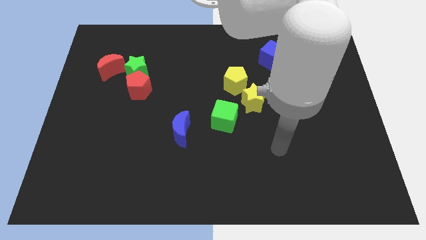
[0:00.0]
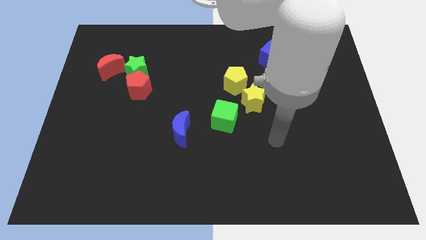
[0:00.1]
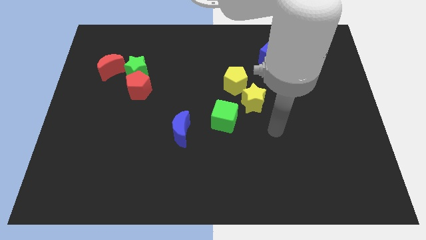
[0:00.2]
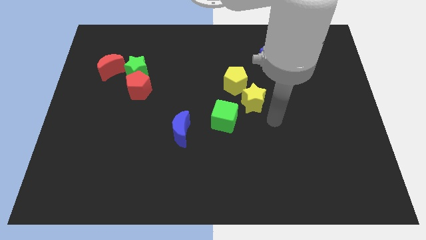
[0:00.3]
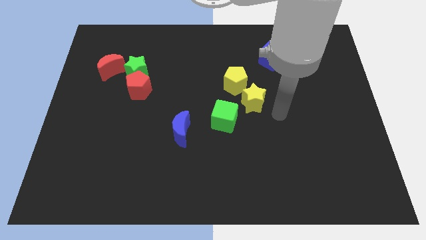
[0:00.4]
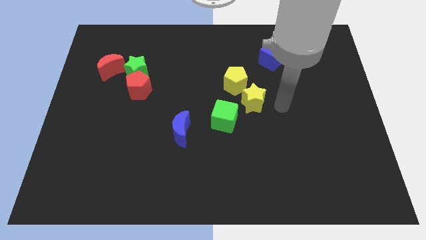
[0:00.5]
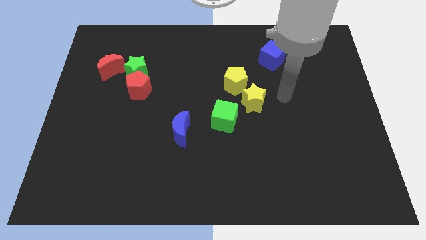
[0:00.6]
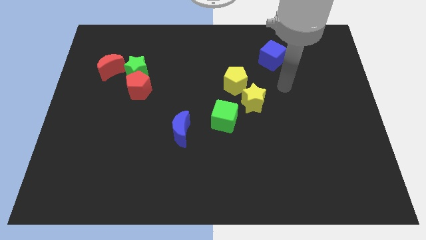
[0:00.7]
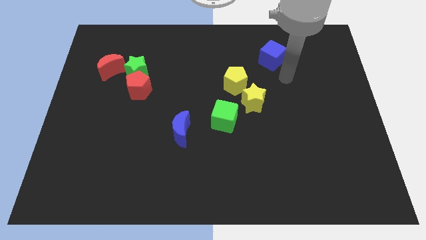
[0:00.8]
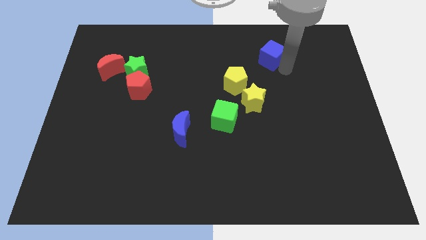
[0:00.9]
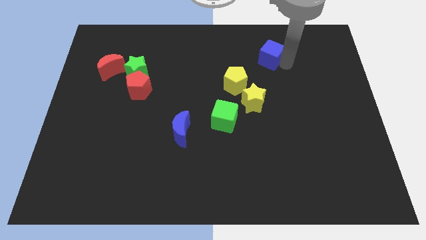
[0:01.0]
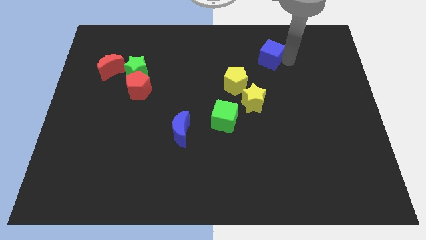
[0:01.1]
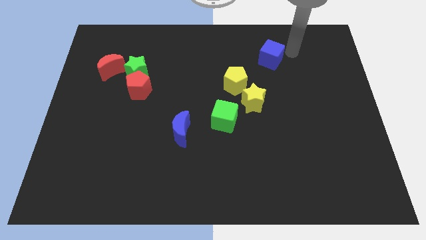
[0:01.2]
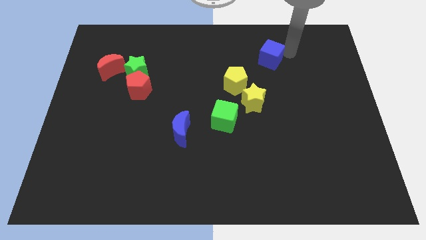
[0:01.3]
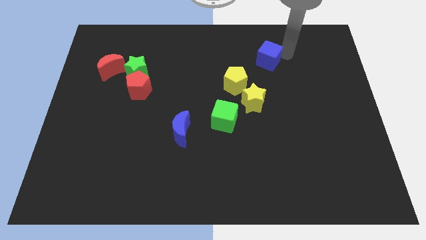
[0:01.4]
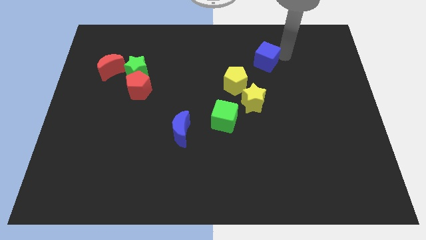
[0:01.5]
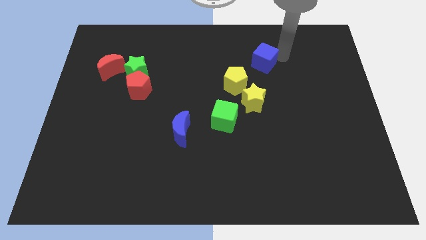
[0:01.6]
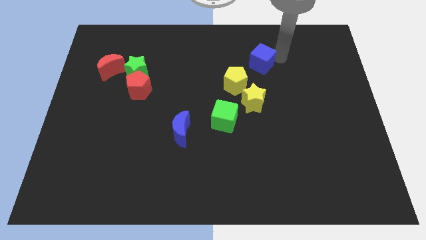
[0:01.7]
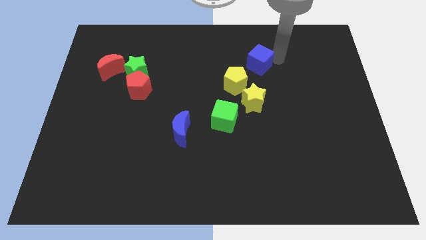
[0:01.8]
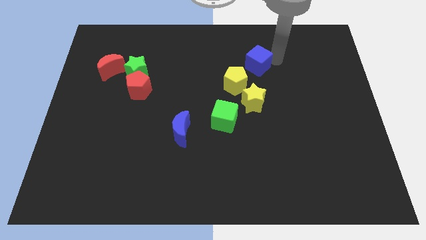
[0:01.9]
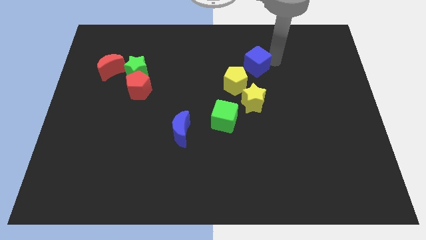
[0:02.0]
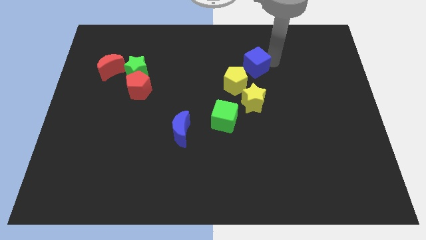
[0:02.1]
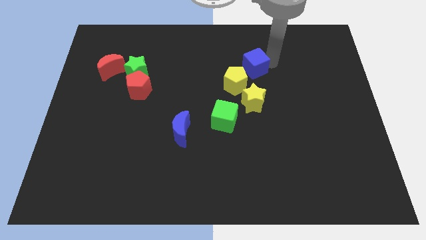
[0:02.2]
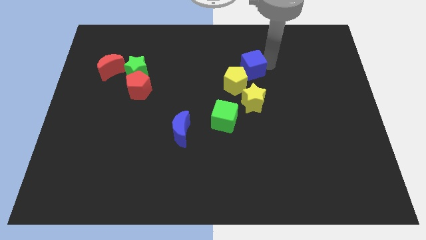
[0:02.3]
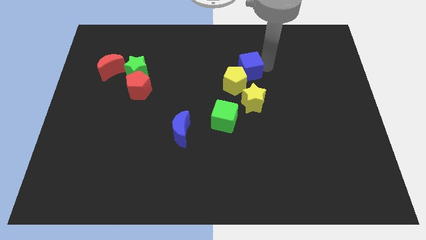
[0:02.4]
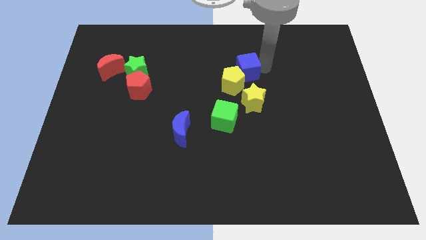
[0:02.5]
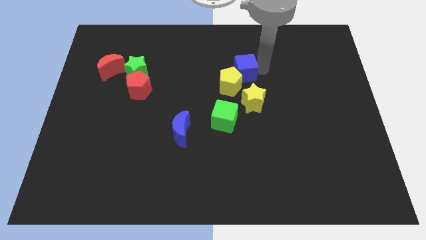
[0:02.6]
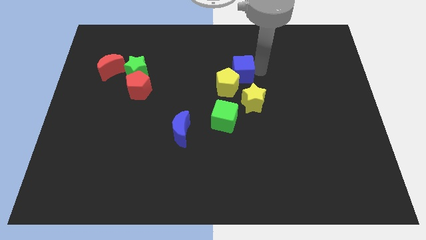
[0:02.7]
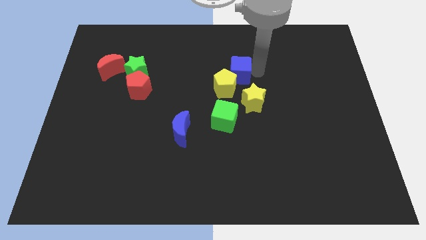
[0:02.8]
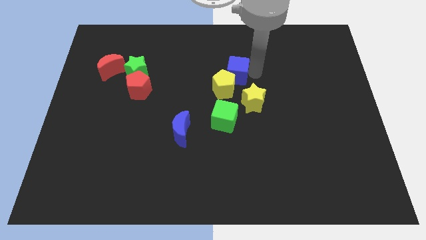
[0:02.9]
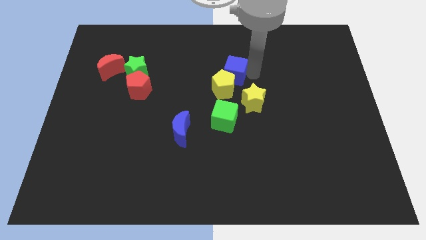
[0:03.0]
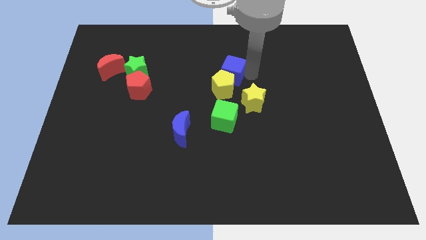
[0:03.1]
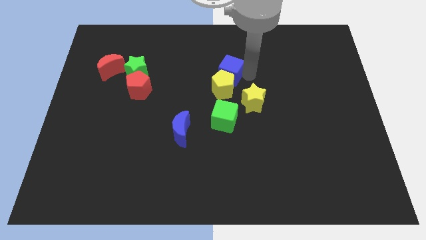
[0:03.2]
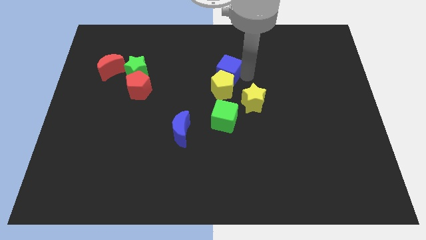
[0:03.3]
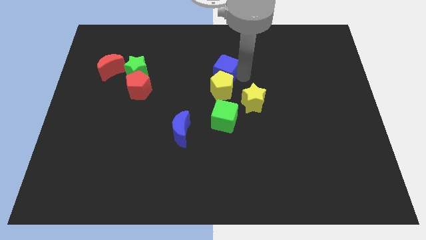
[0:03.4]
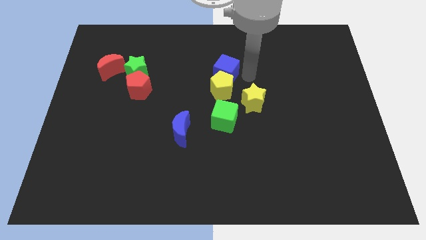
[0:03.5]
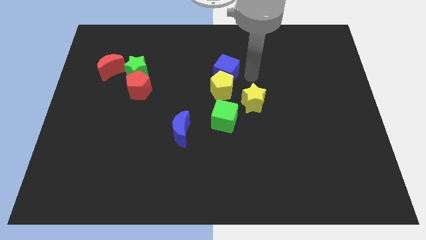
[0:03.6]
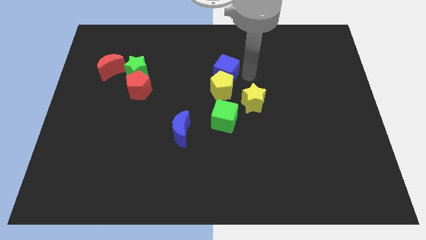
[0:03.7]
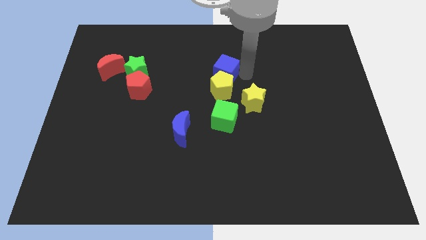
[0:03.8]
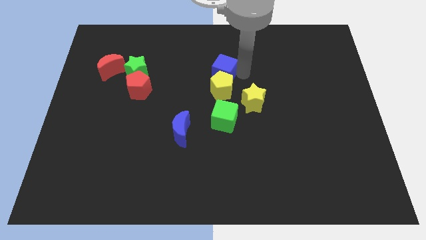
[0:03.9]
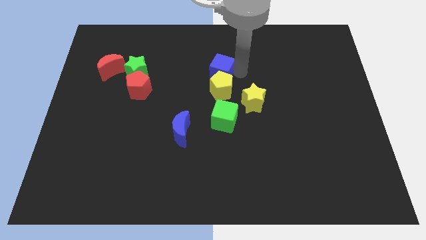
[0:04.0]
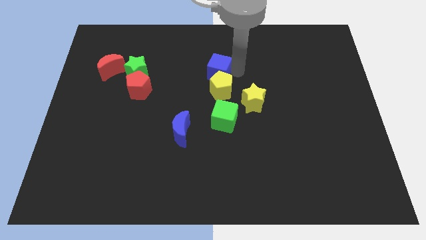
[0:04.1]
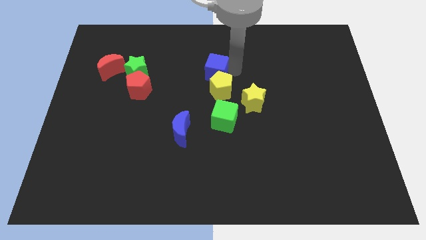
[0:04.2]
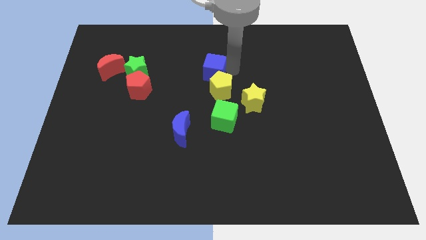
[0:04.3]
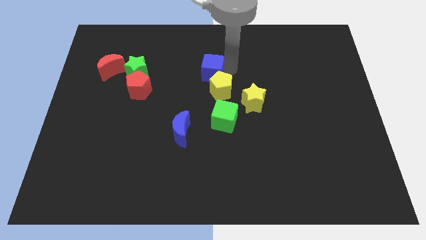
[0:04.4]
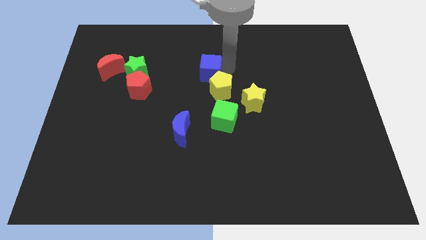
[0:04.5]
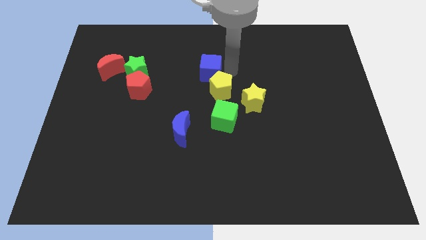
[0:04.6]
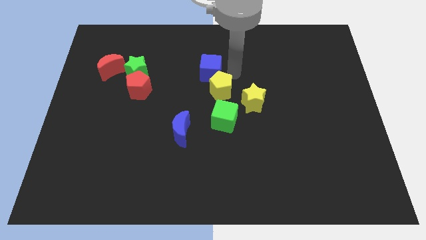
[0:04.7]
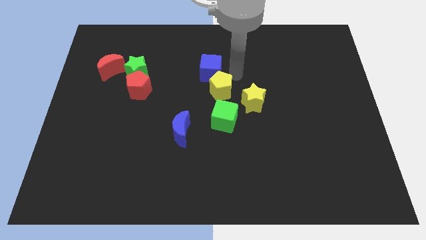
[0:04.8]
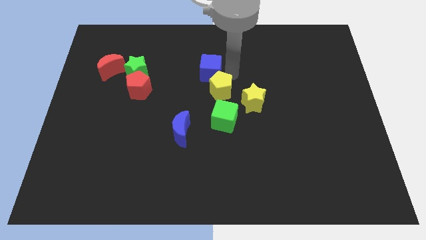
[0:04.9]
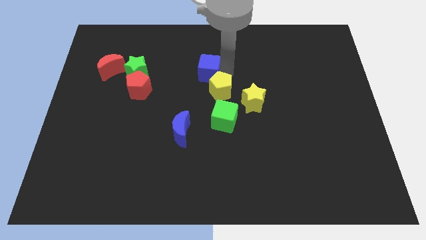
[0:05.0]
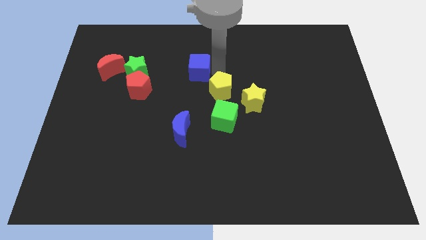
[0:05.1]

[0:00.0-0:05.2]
push the blue cube to the right of the green star

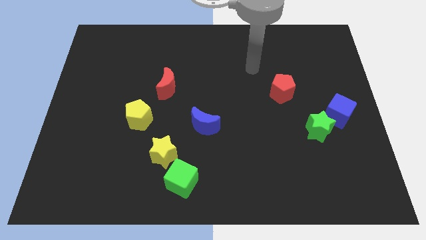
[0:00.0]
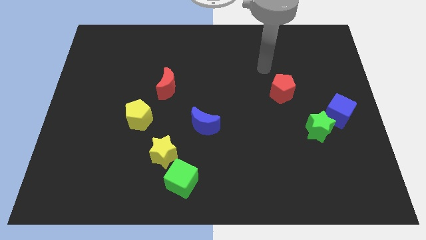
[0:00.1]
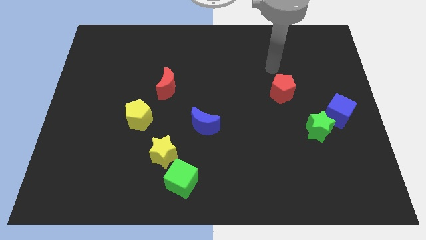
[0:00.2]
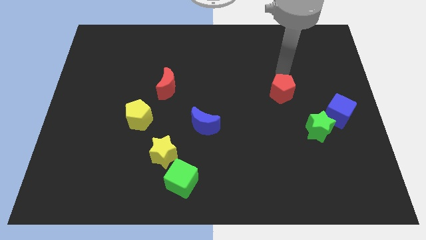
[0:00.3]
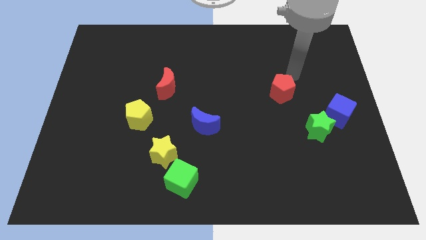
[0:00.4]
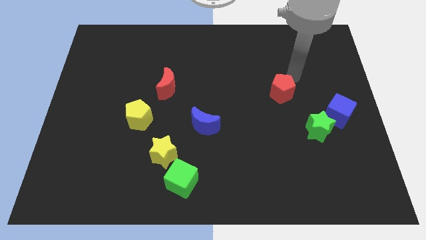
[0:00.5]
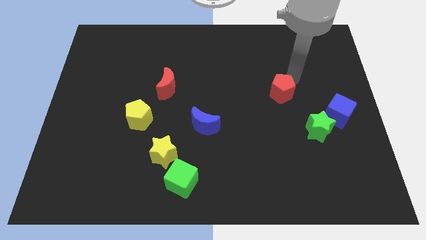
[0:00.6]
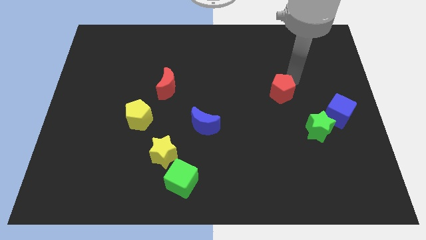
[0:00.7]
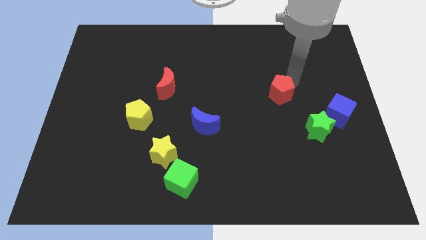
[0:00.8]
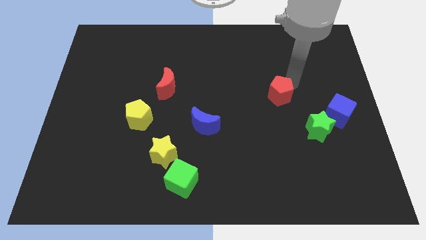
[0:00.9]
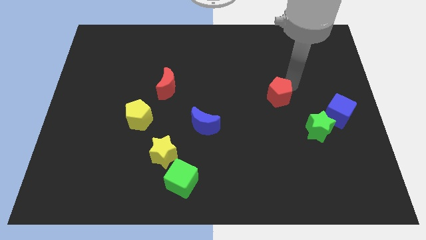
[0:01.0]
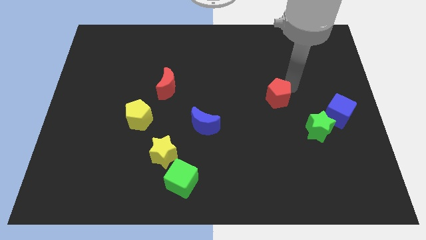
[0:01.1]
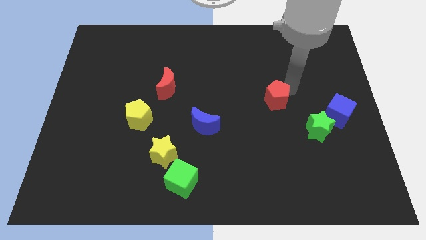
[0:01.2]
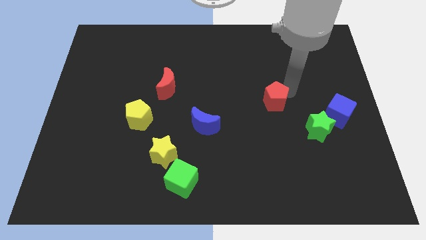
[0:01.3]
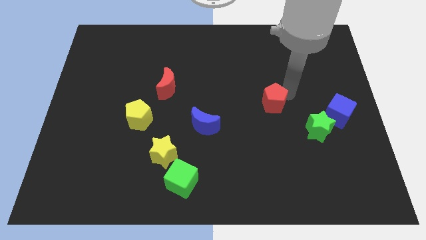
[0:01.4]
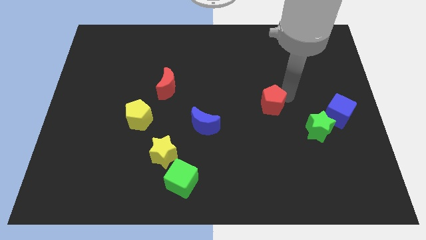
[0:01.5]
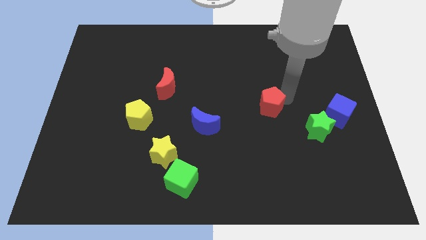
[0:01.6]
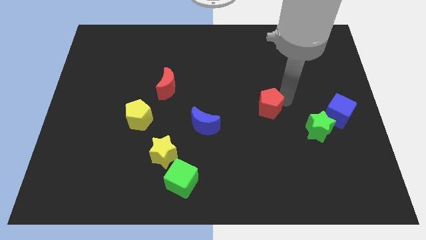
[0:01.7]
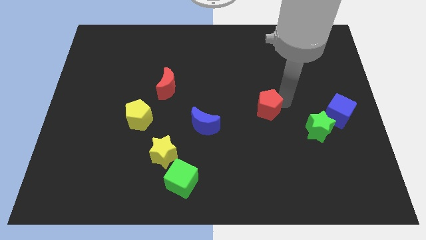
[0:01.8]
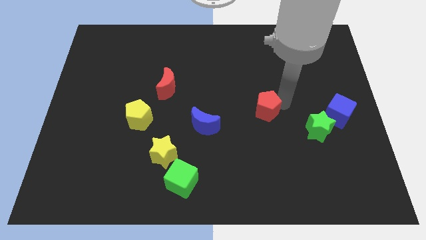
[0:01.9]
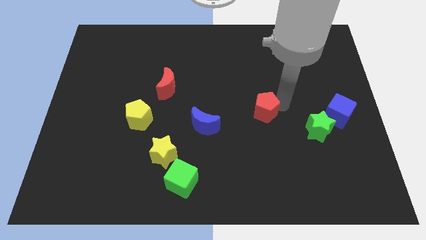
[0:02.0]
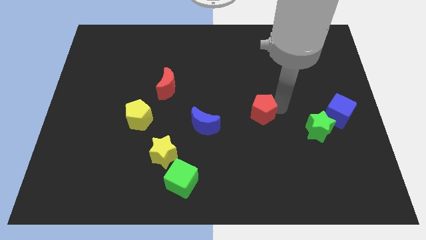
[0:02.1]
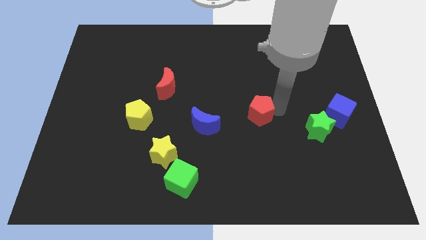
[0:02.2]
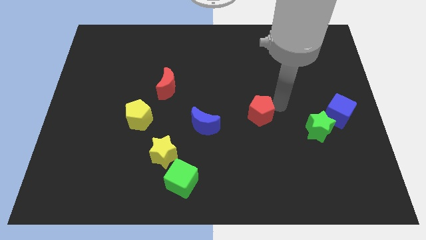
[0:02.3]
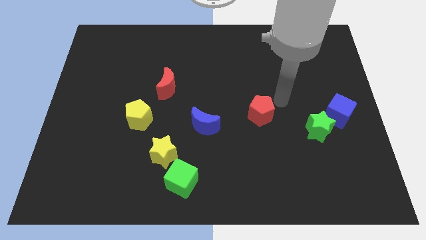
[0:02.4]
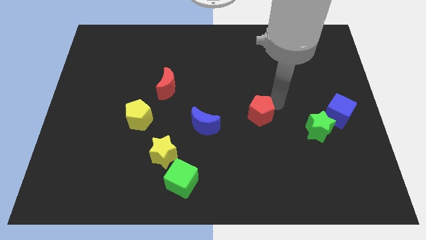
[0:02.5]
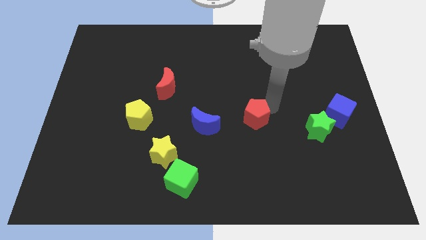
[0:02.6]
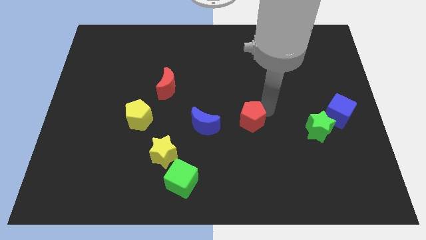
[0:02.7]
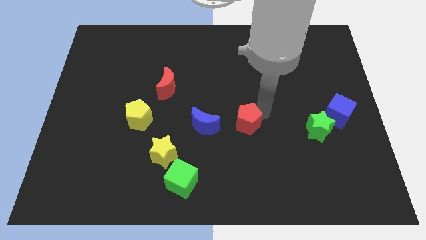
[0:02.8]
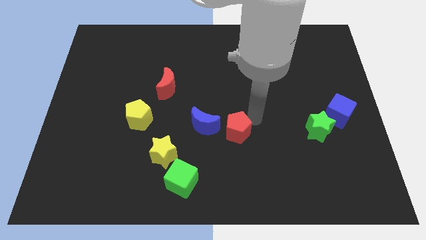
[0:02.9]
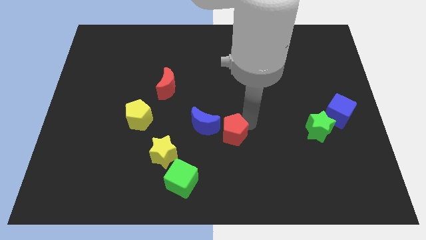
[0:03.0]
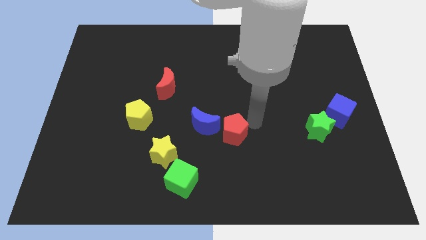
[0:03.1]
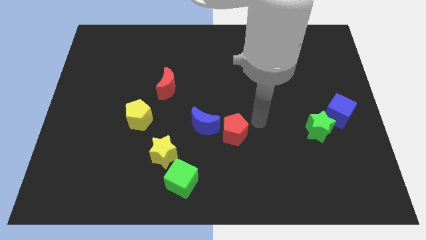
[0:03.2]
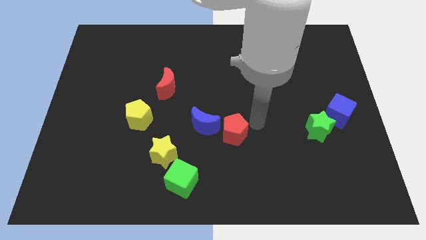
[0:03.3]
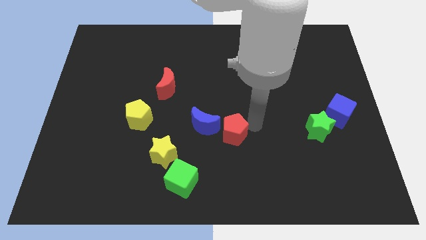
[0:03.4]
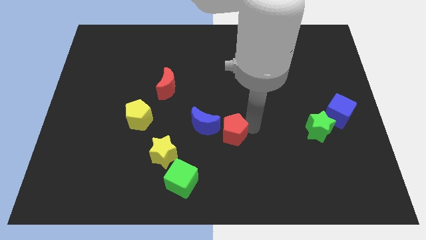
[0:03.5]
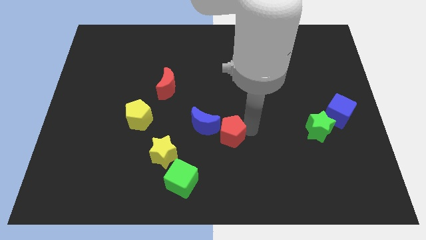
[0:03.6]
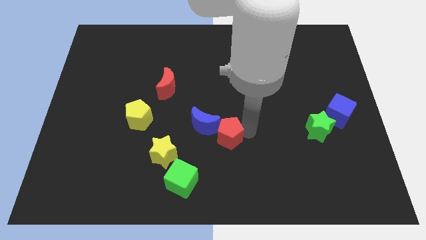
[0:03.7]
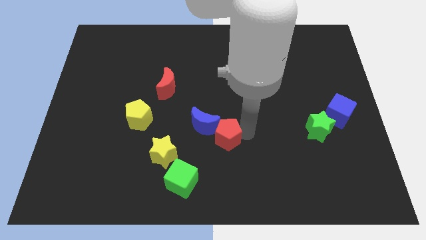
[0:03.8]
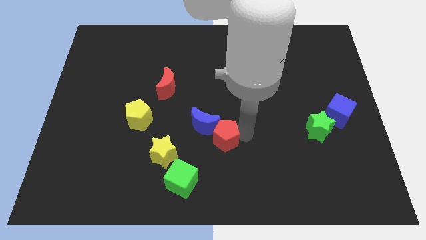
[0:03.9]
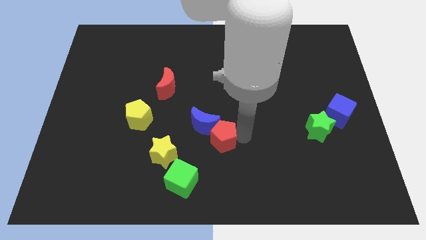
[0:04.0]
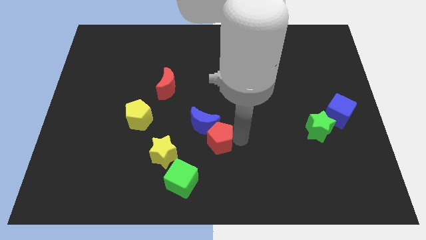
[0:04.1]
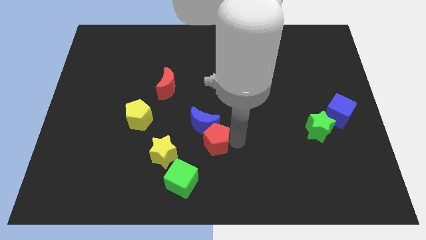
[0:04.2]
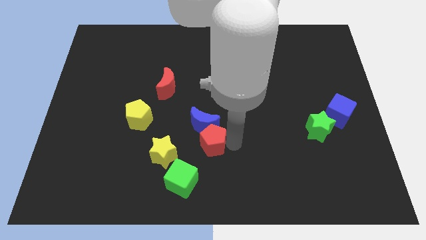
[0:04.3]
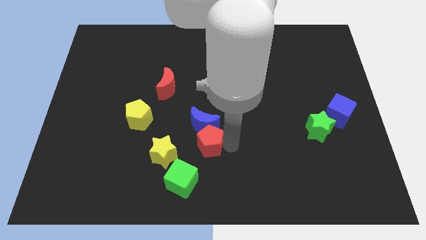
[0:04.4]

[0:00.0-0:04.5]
put the red pentagon diagonally down and to the left of the blue moon
